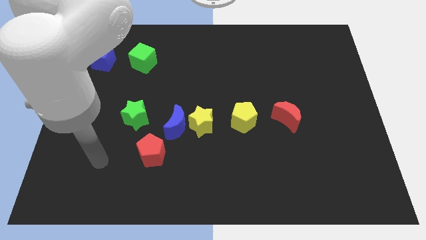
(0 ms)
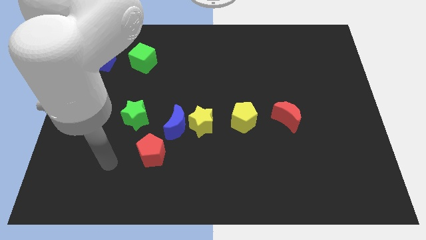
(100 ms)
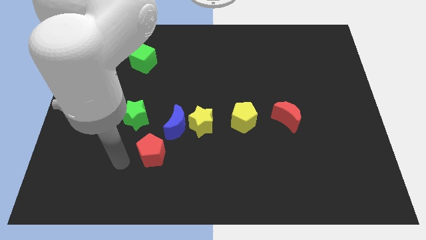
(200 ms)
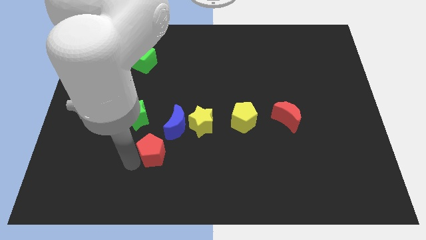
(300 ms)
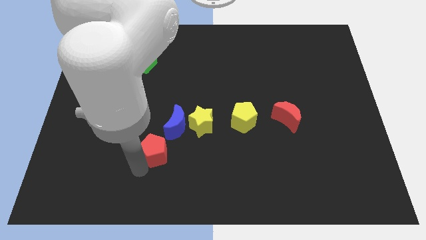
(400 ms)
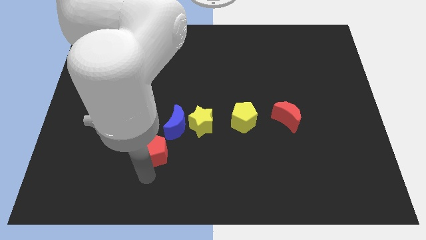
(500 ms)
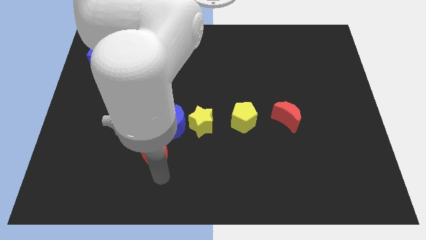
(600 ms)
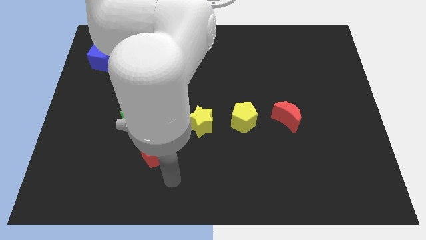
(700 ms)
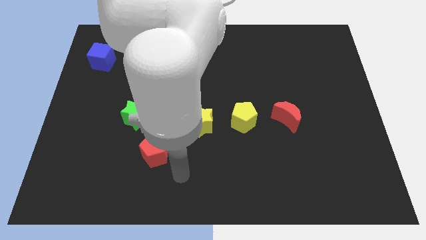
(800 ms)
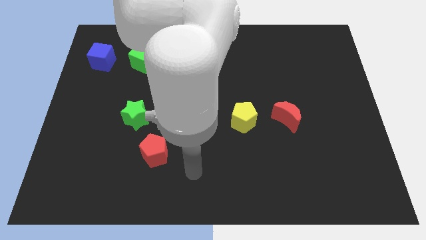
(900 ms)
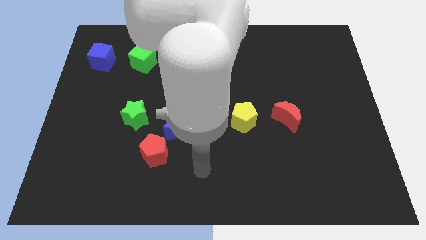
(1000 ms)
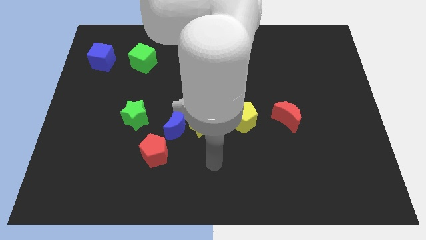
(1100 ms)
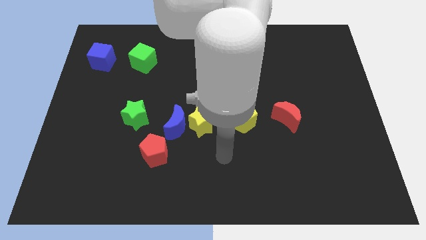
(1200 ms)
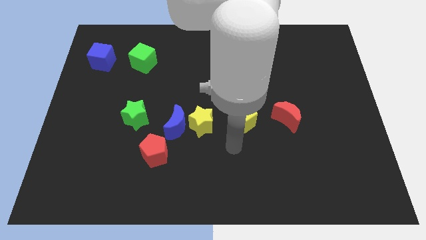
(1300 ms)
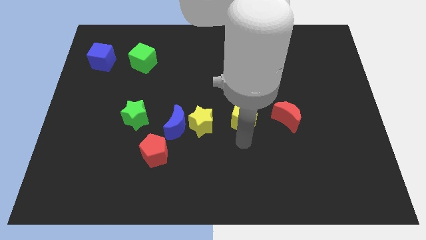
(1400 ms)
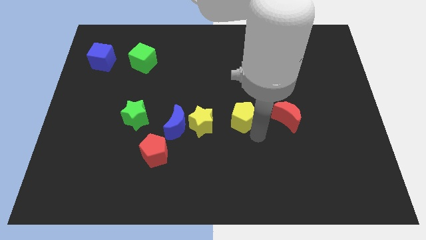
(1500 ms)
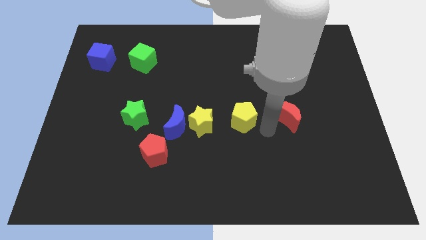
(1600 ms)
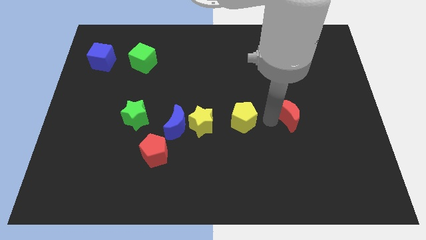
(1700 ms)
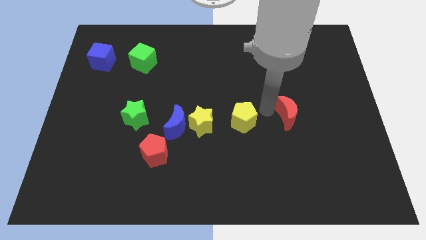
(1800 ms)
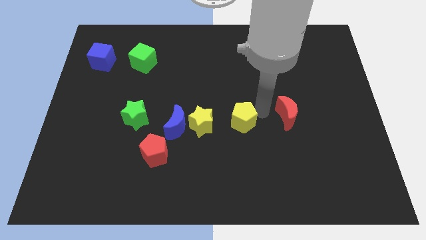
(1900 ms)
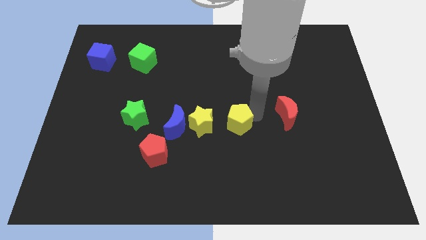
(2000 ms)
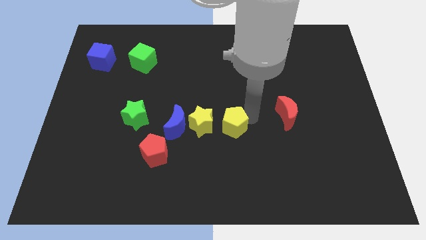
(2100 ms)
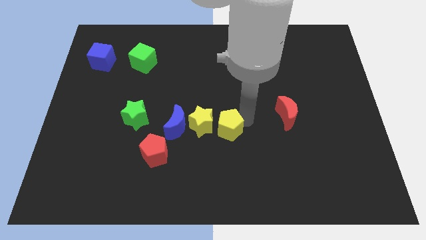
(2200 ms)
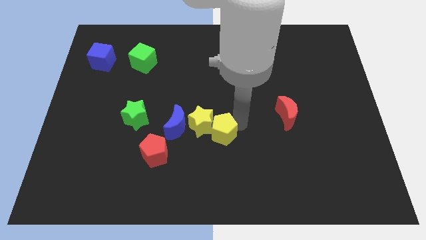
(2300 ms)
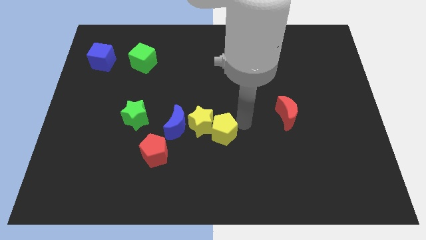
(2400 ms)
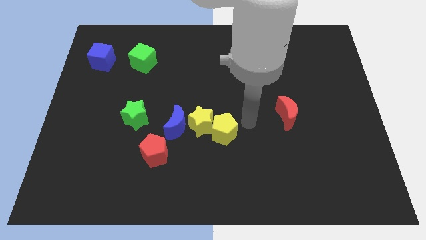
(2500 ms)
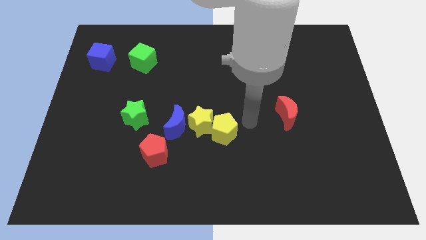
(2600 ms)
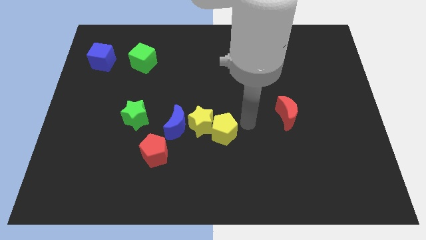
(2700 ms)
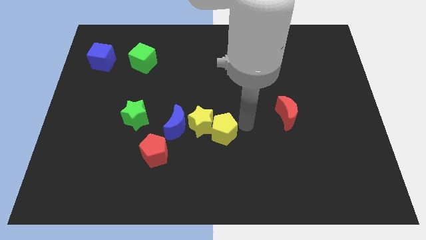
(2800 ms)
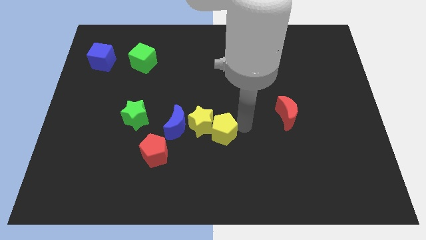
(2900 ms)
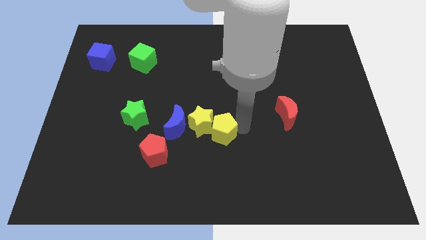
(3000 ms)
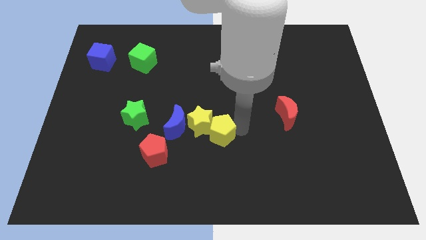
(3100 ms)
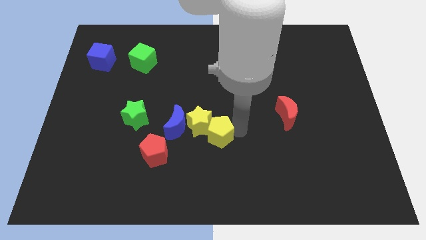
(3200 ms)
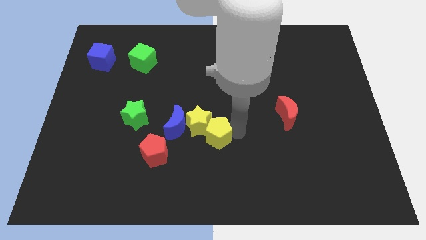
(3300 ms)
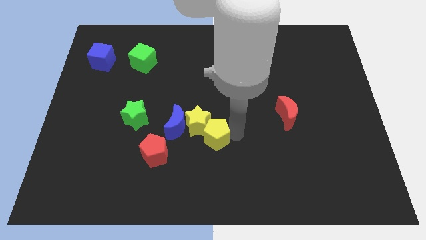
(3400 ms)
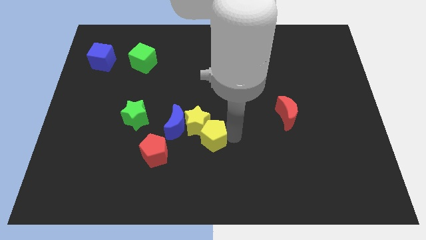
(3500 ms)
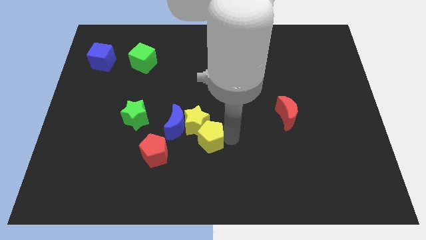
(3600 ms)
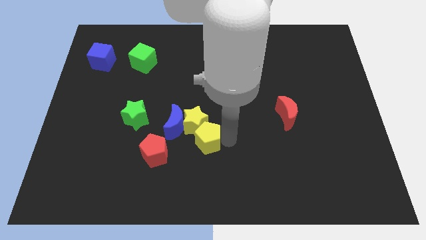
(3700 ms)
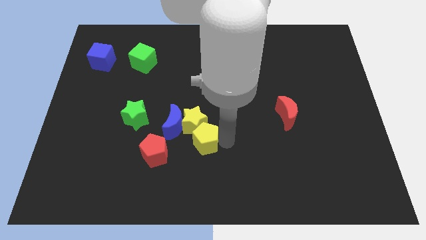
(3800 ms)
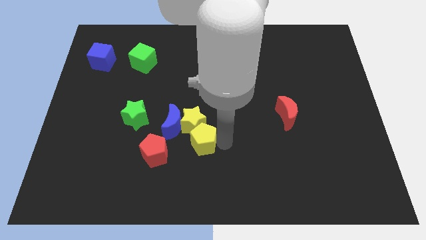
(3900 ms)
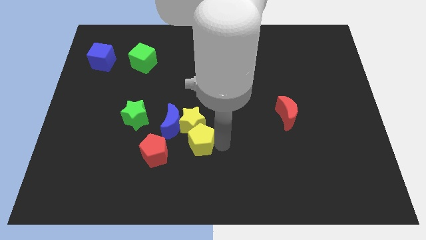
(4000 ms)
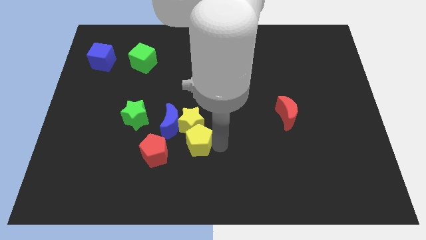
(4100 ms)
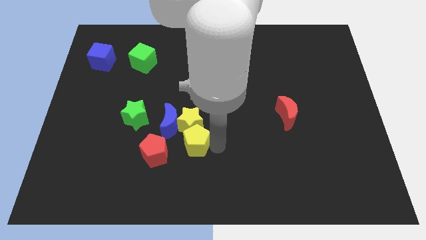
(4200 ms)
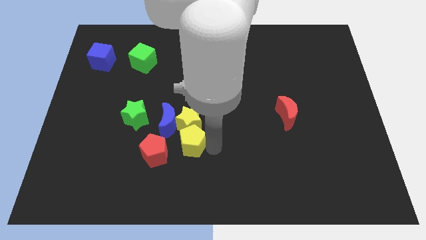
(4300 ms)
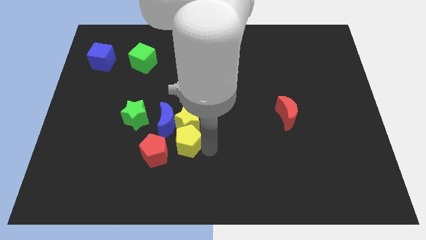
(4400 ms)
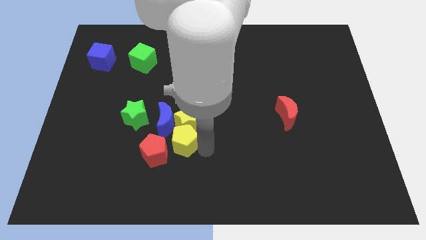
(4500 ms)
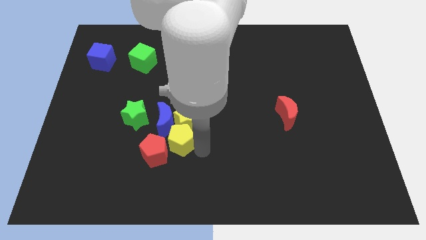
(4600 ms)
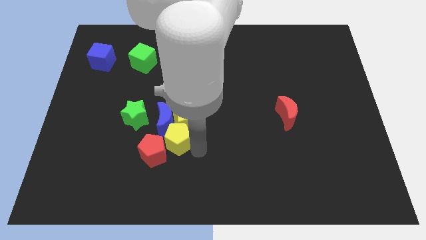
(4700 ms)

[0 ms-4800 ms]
move the yellow pentagon close to the blue moon

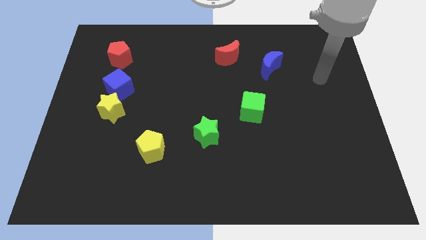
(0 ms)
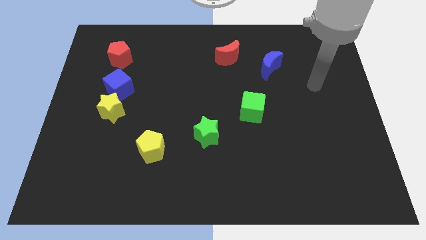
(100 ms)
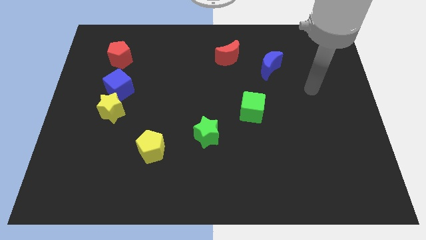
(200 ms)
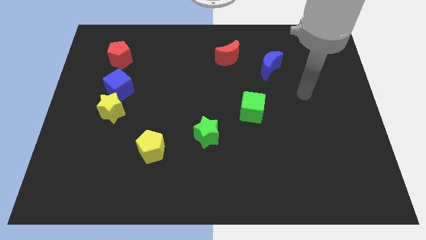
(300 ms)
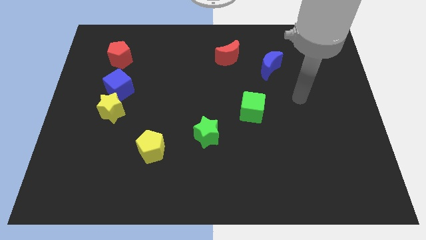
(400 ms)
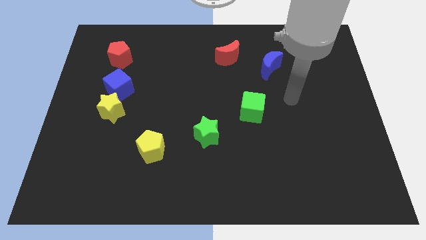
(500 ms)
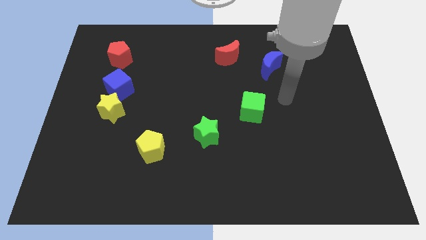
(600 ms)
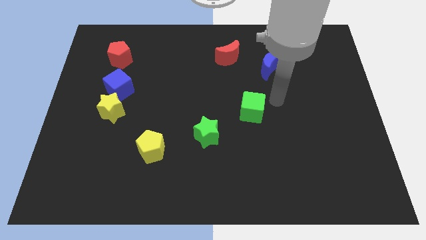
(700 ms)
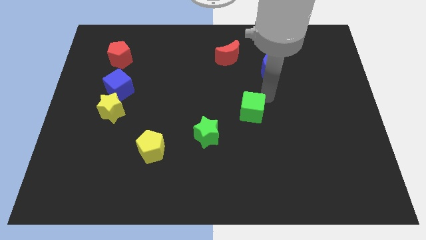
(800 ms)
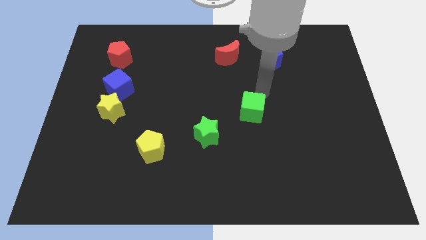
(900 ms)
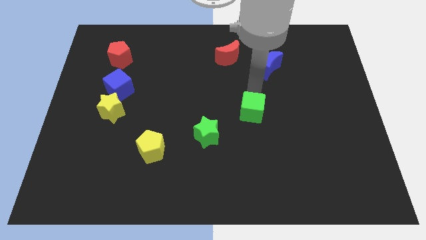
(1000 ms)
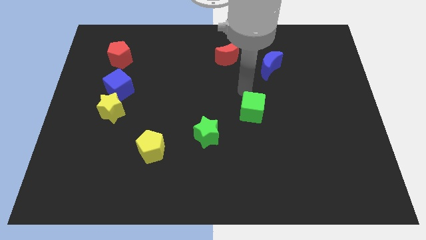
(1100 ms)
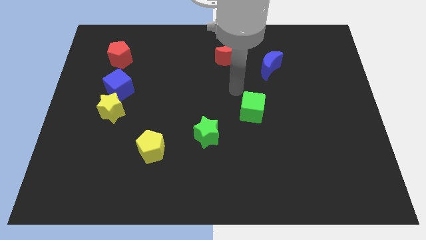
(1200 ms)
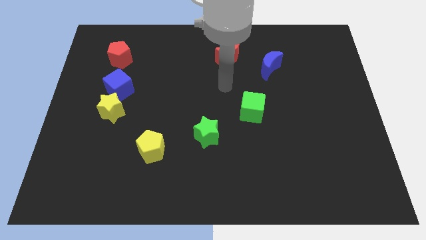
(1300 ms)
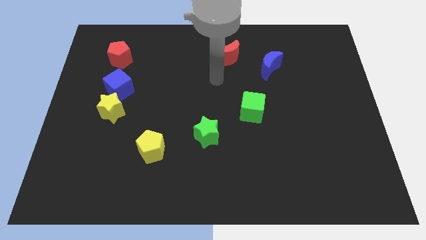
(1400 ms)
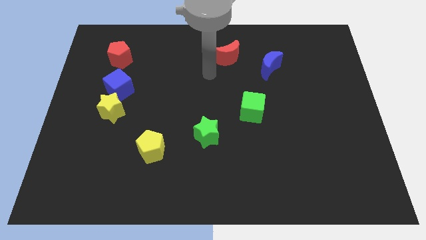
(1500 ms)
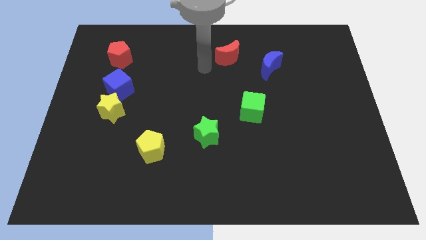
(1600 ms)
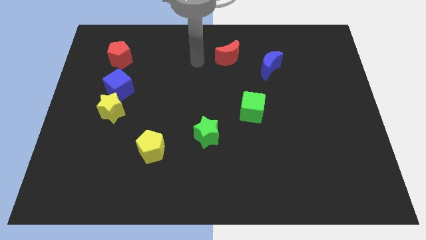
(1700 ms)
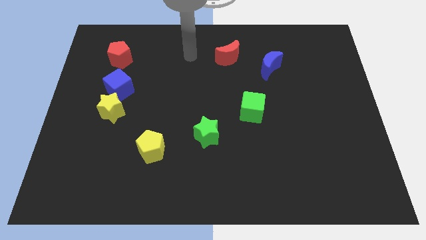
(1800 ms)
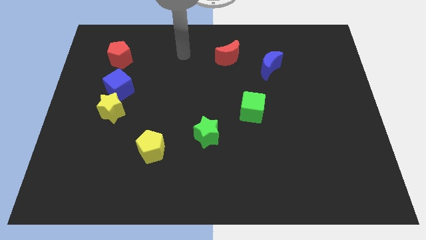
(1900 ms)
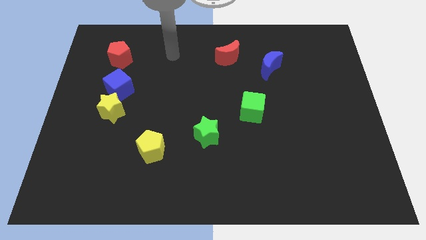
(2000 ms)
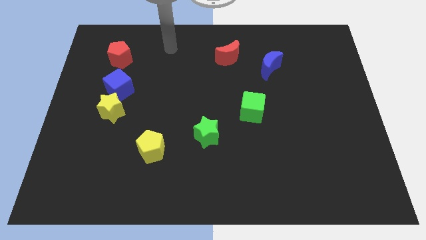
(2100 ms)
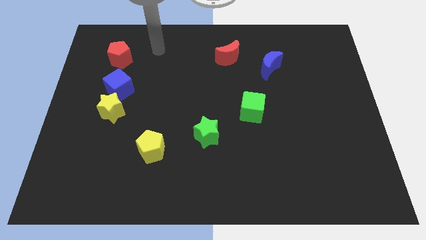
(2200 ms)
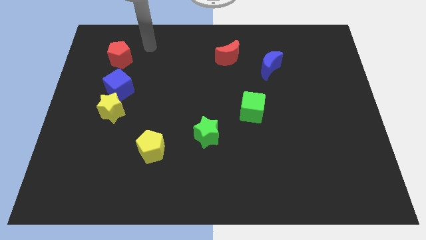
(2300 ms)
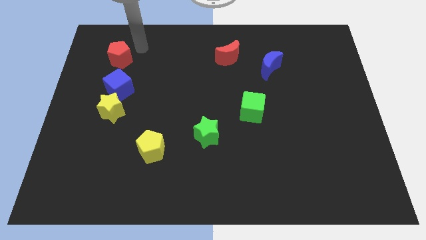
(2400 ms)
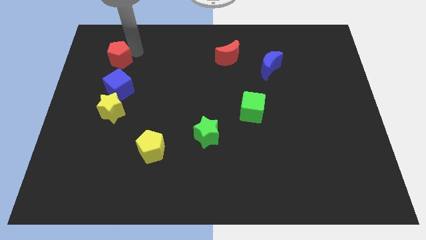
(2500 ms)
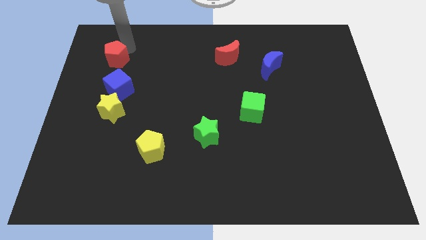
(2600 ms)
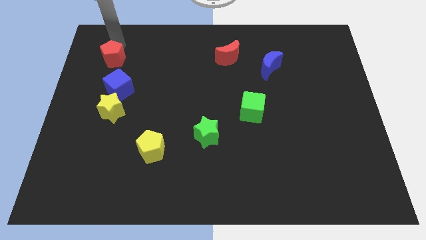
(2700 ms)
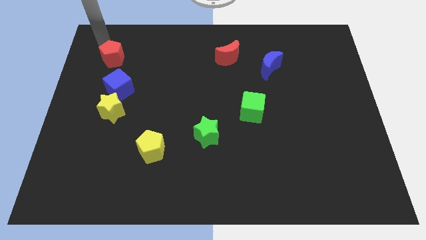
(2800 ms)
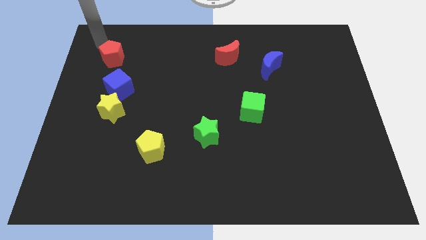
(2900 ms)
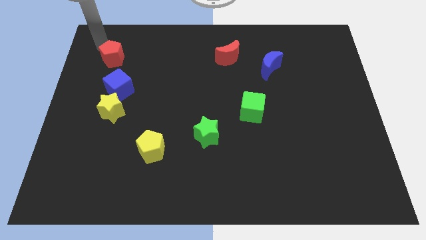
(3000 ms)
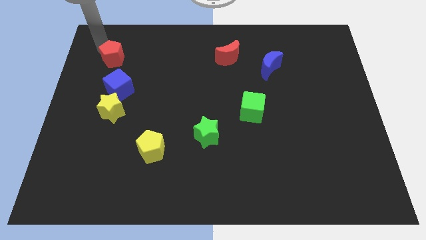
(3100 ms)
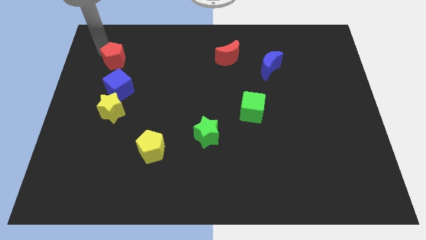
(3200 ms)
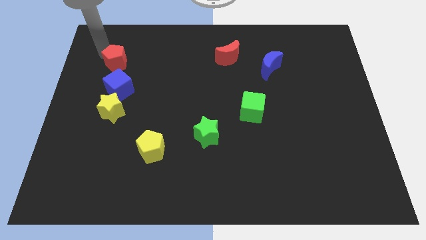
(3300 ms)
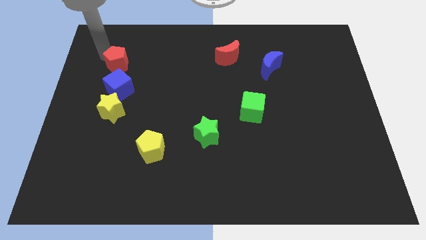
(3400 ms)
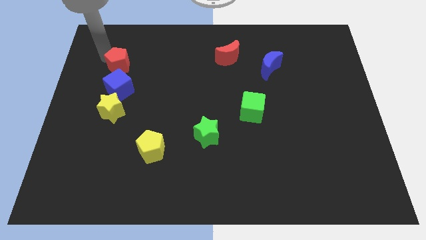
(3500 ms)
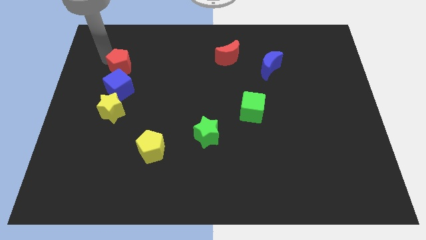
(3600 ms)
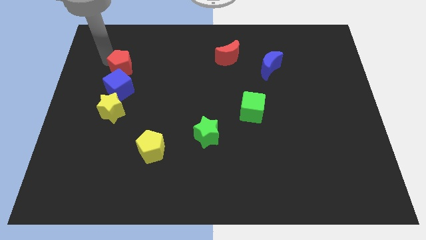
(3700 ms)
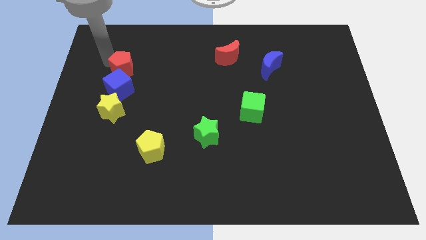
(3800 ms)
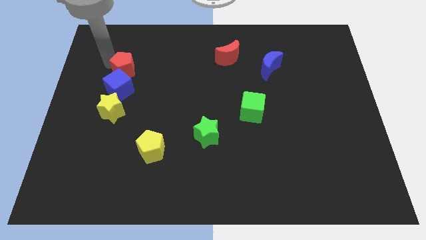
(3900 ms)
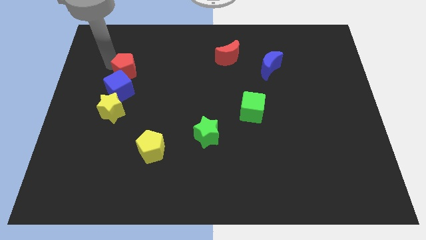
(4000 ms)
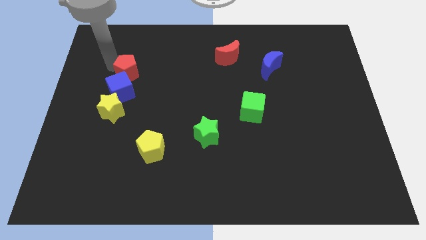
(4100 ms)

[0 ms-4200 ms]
move the red pentagon close to the blue cube

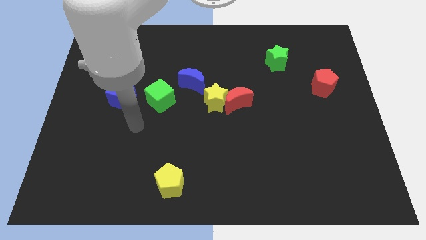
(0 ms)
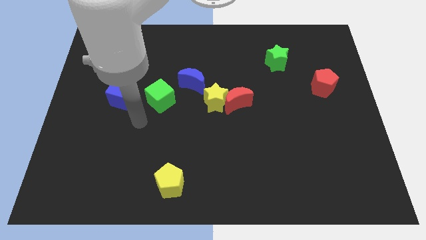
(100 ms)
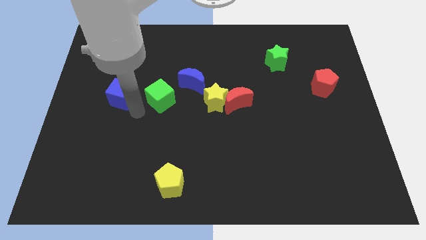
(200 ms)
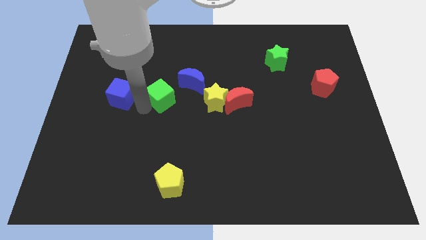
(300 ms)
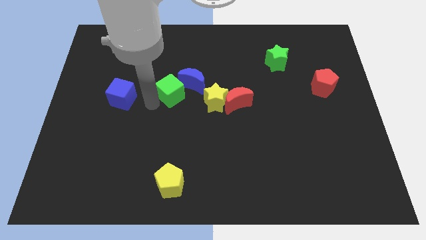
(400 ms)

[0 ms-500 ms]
put the green cube to the blue moon
